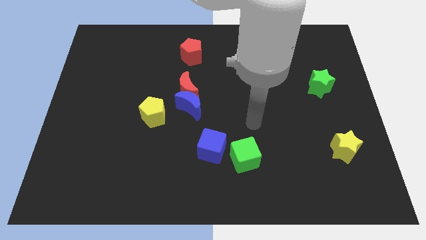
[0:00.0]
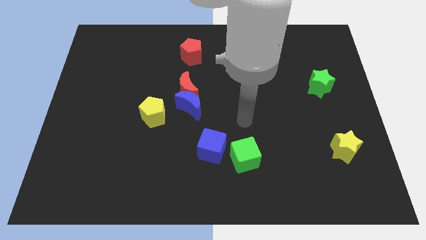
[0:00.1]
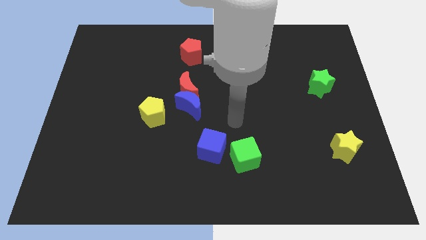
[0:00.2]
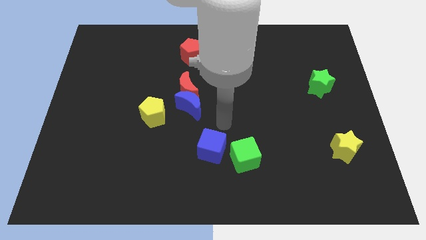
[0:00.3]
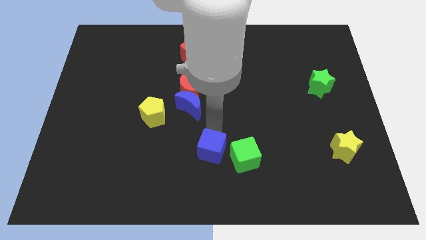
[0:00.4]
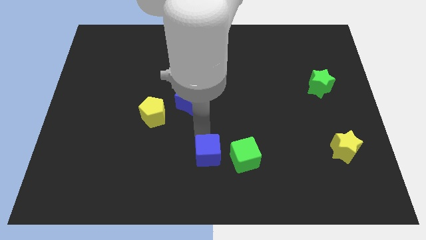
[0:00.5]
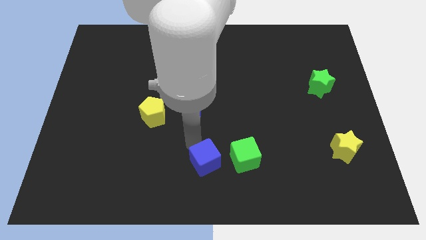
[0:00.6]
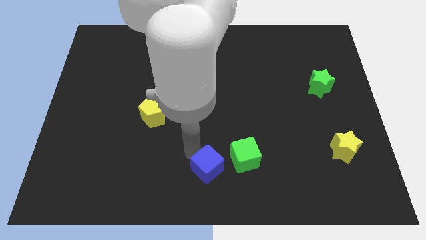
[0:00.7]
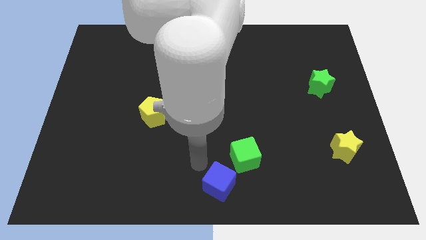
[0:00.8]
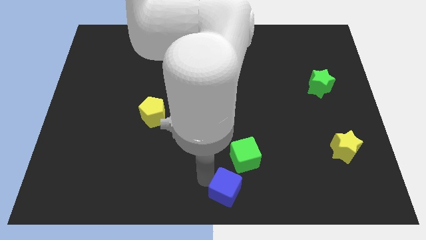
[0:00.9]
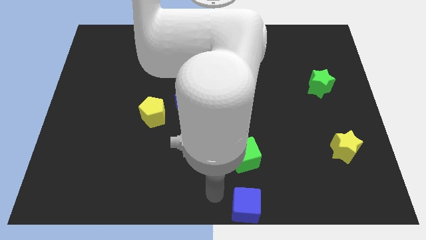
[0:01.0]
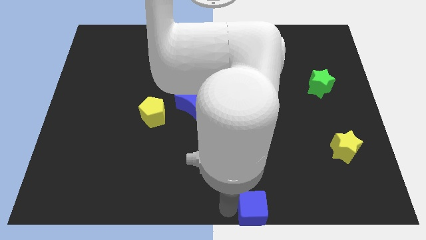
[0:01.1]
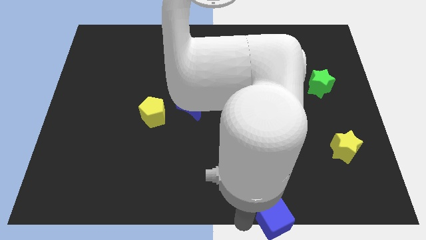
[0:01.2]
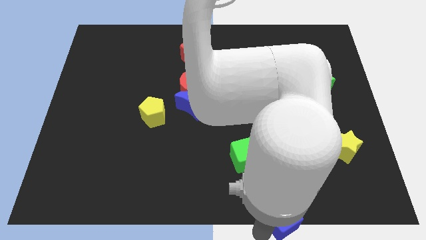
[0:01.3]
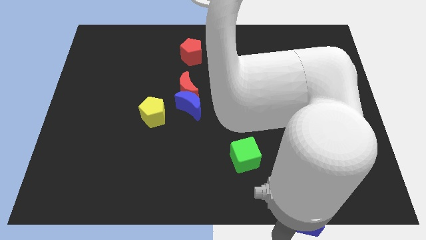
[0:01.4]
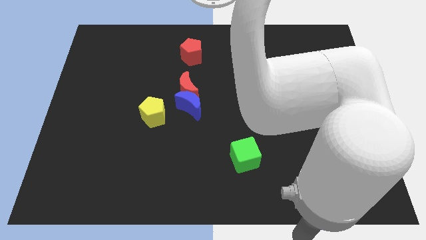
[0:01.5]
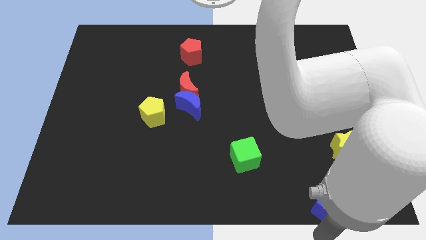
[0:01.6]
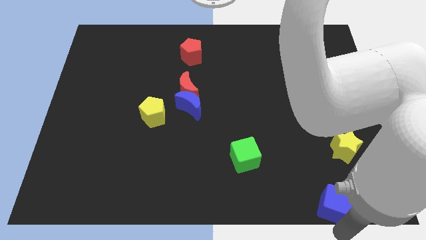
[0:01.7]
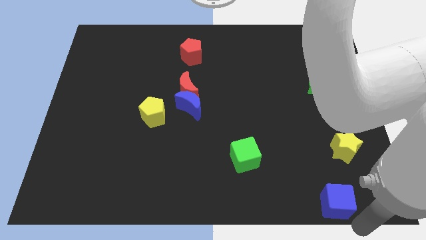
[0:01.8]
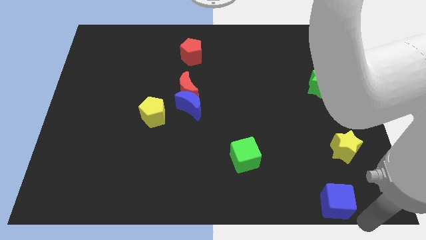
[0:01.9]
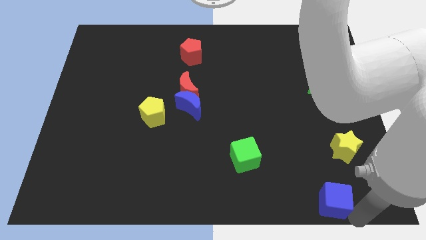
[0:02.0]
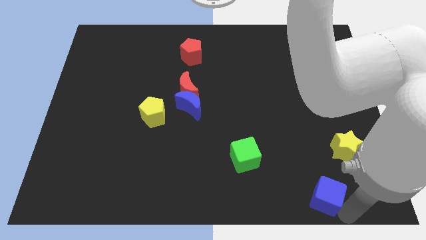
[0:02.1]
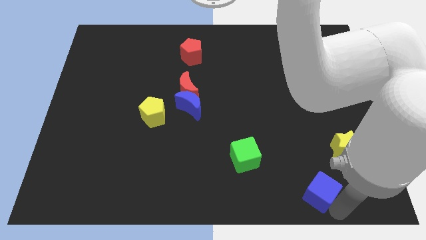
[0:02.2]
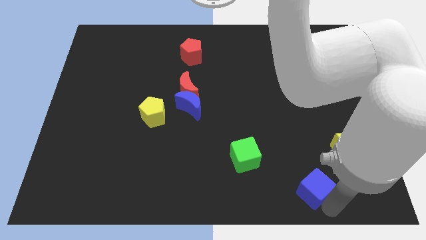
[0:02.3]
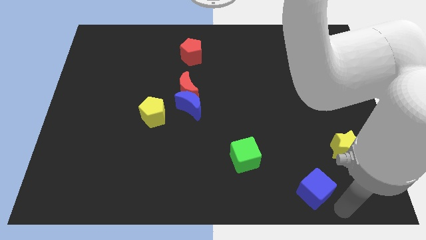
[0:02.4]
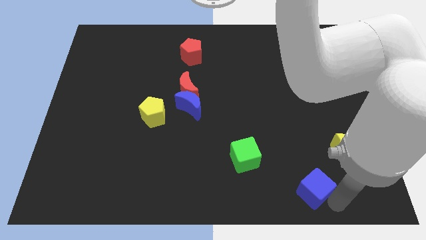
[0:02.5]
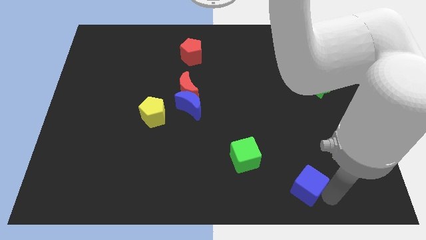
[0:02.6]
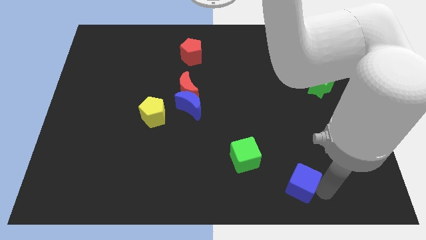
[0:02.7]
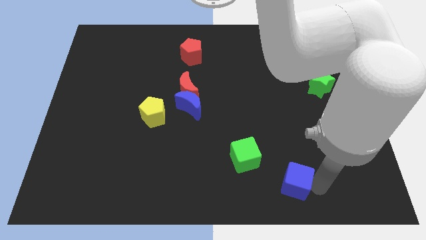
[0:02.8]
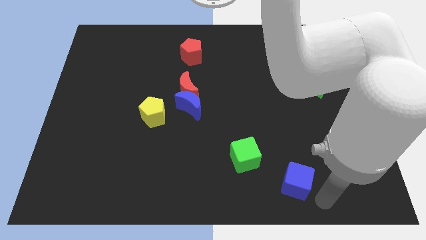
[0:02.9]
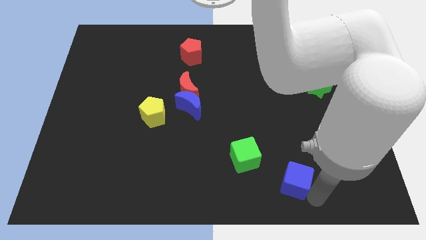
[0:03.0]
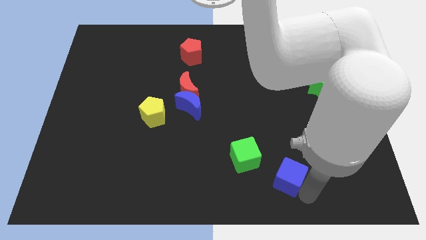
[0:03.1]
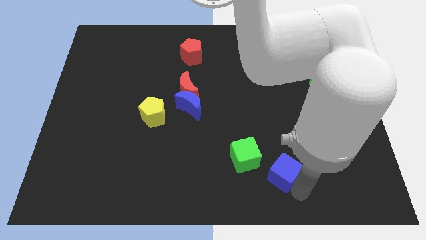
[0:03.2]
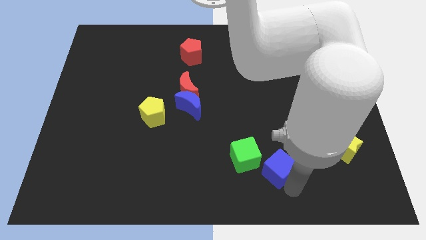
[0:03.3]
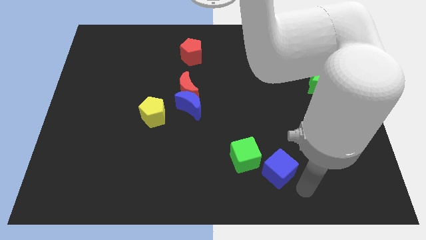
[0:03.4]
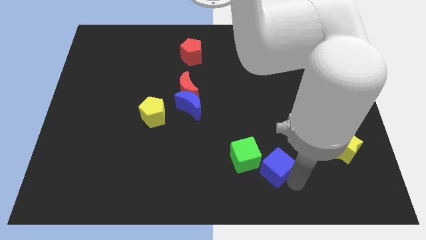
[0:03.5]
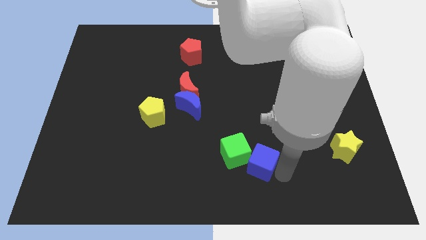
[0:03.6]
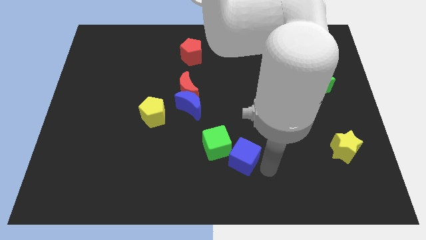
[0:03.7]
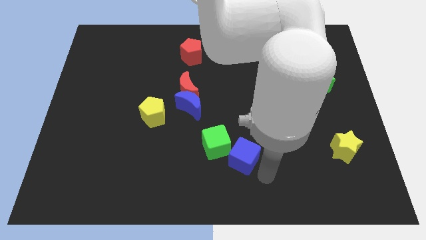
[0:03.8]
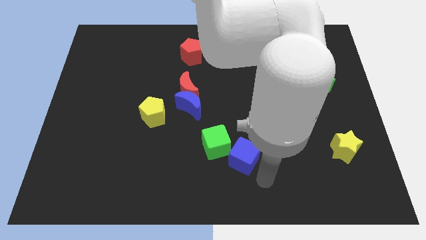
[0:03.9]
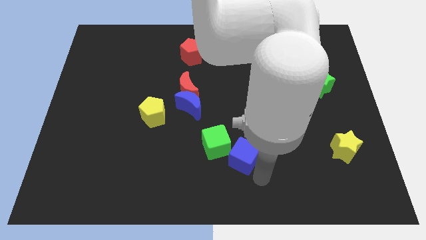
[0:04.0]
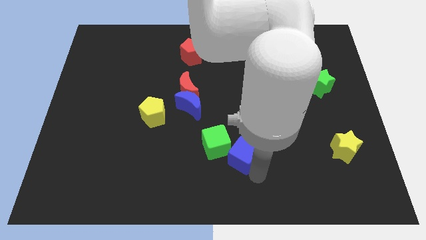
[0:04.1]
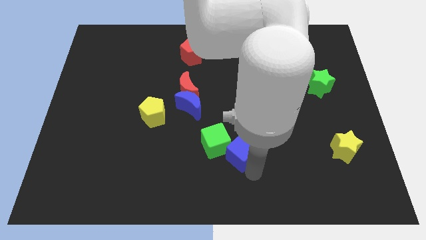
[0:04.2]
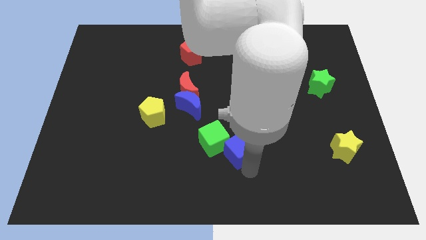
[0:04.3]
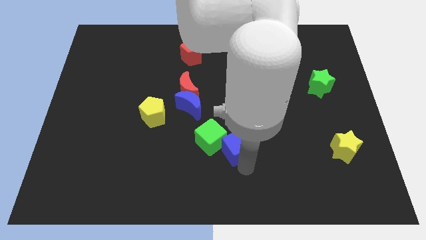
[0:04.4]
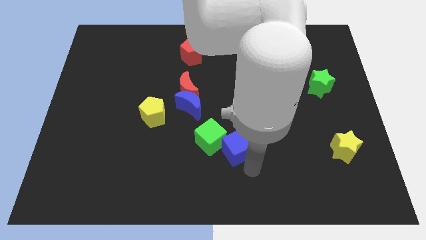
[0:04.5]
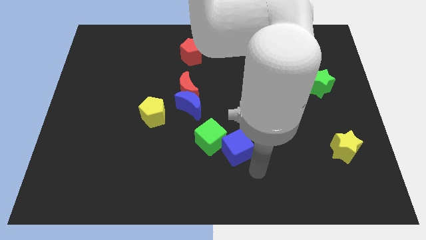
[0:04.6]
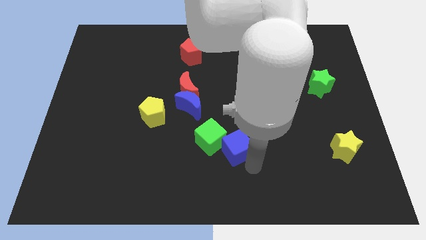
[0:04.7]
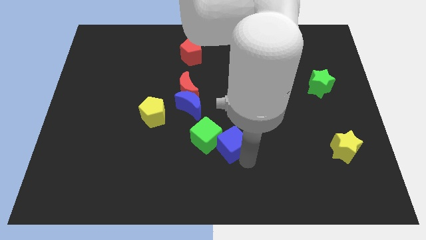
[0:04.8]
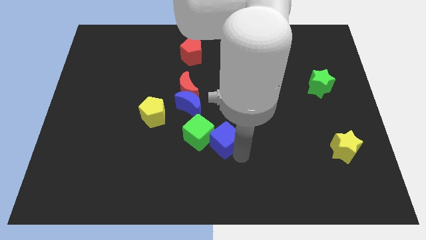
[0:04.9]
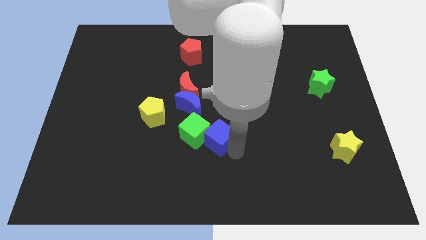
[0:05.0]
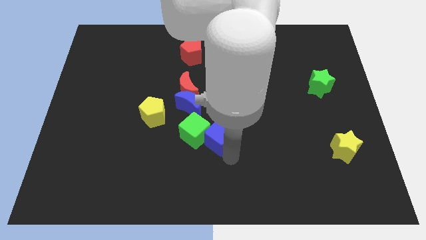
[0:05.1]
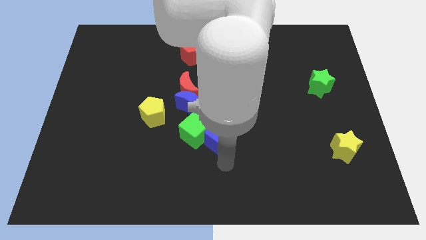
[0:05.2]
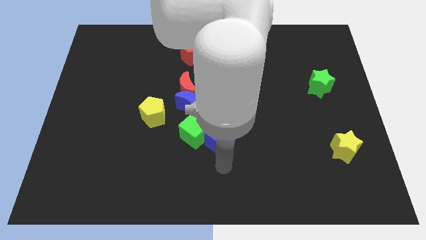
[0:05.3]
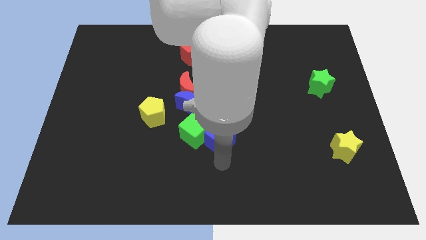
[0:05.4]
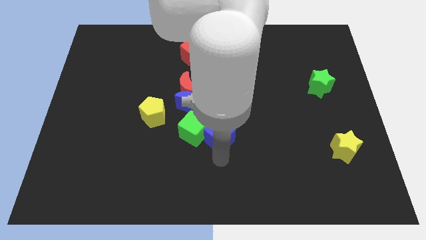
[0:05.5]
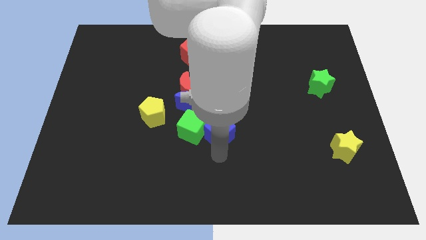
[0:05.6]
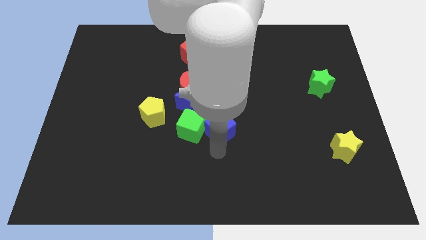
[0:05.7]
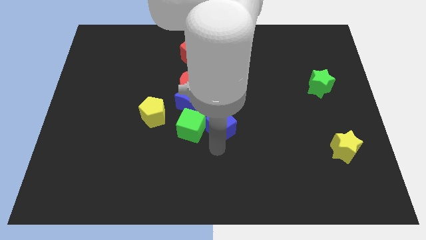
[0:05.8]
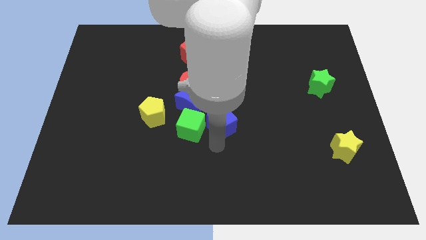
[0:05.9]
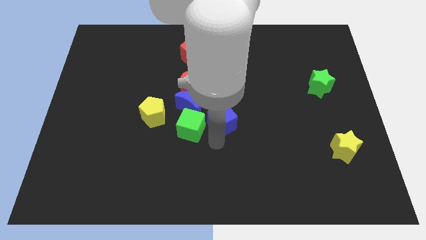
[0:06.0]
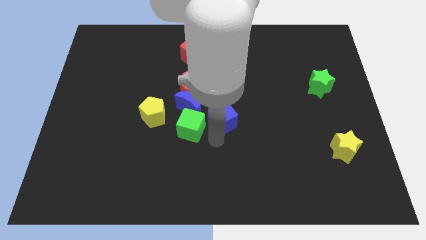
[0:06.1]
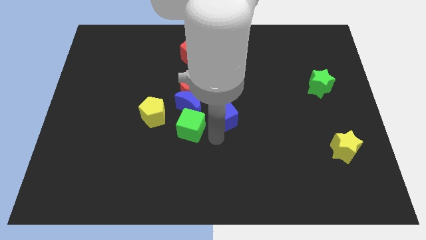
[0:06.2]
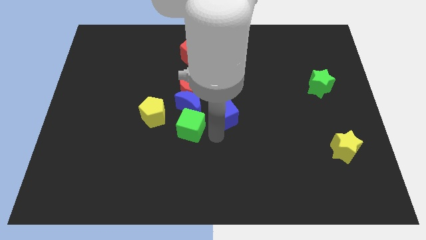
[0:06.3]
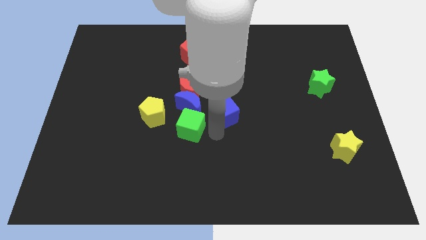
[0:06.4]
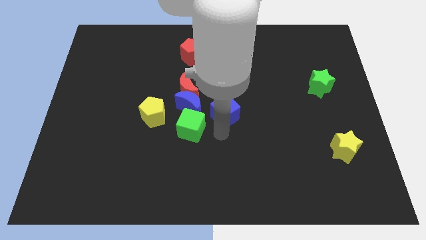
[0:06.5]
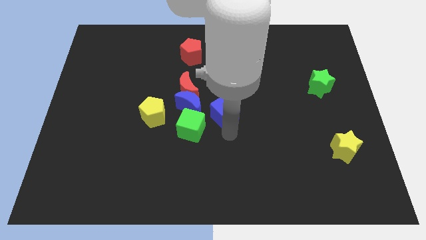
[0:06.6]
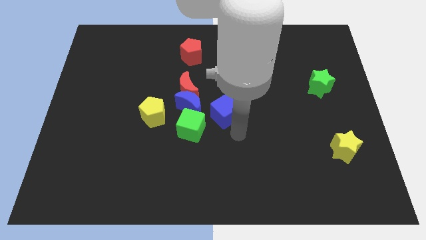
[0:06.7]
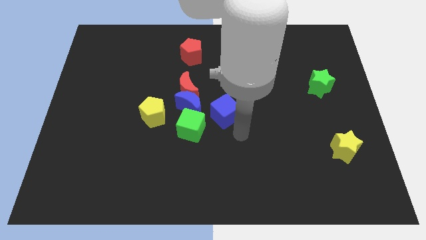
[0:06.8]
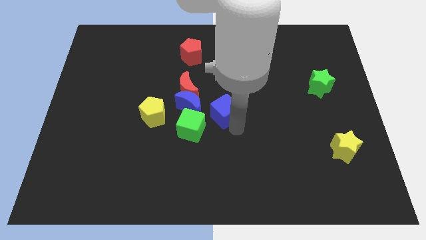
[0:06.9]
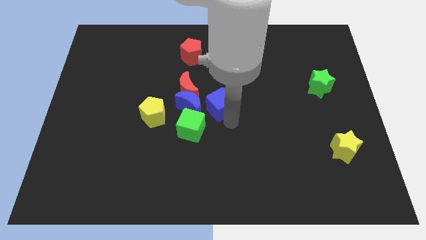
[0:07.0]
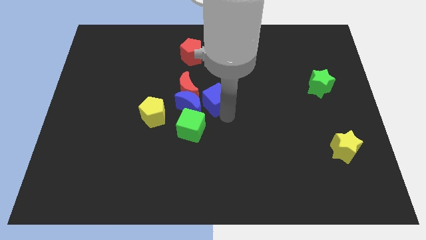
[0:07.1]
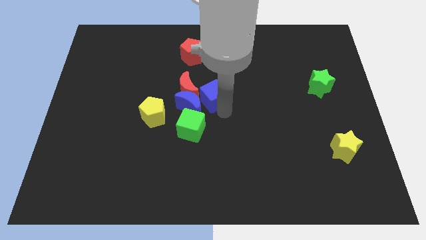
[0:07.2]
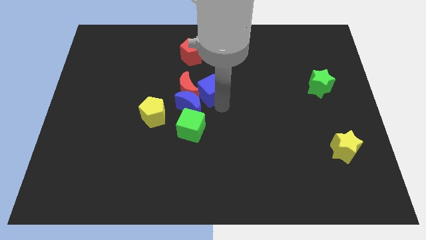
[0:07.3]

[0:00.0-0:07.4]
push the blue cube next to the red moon

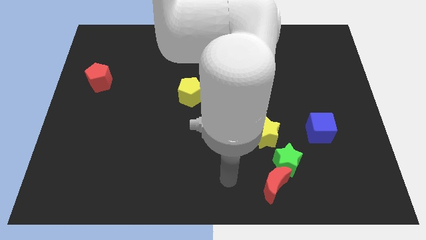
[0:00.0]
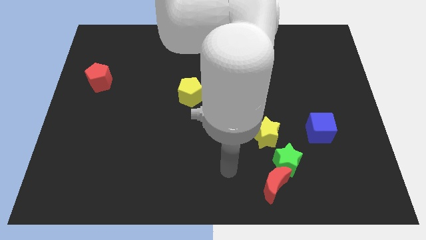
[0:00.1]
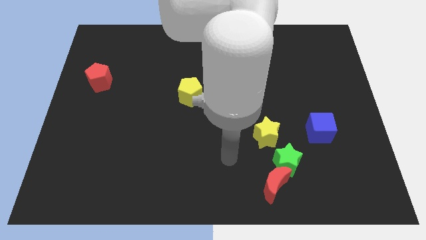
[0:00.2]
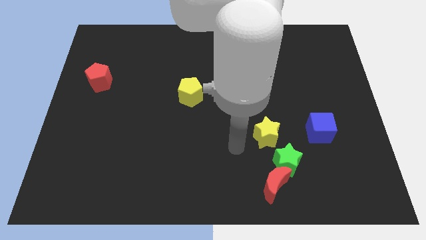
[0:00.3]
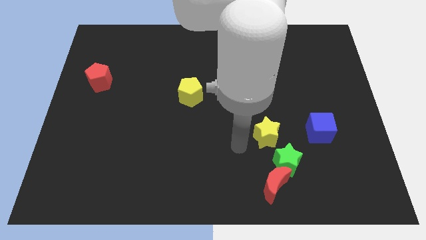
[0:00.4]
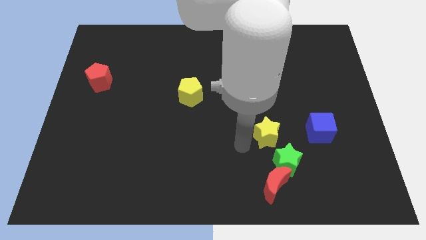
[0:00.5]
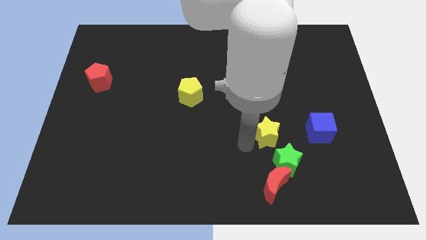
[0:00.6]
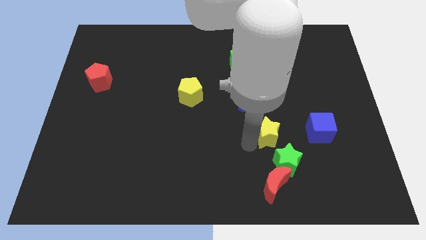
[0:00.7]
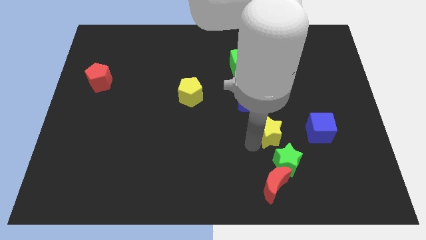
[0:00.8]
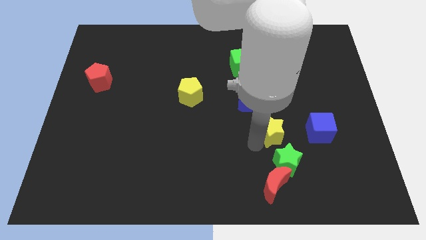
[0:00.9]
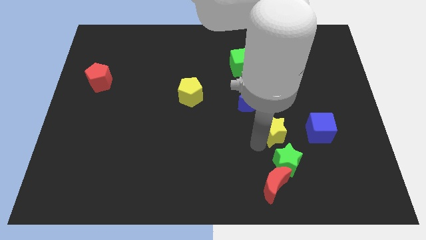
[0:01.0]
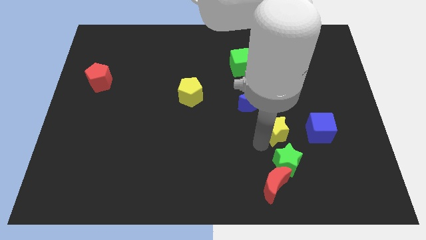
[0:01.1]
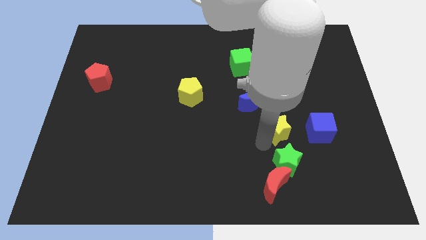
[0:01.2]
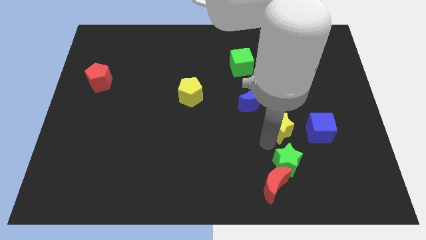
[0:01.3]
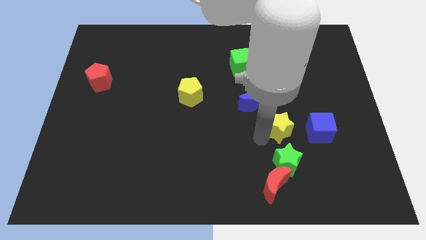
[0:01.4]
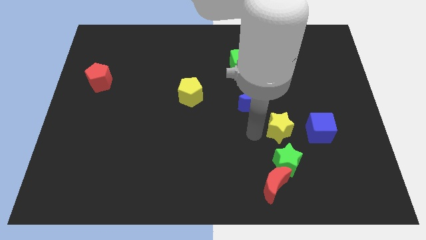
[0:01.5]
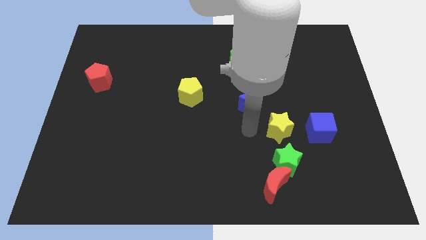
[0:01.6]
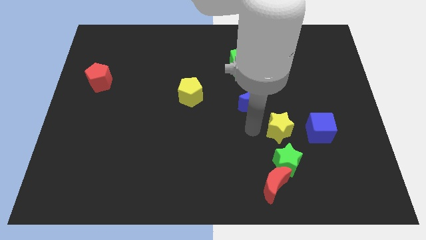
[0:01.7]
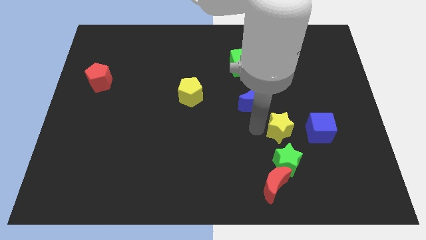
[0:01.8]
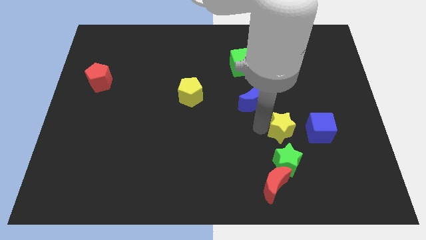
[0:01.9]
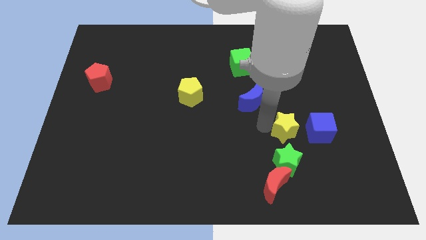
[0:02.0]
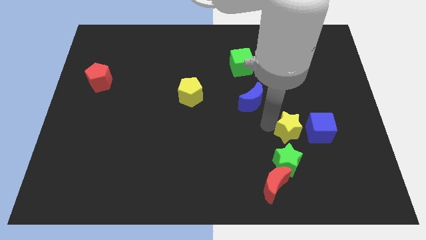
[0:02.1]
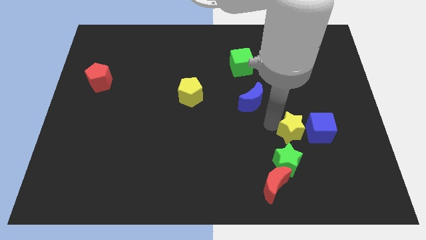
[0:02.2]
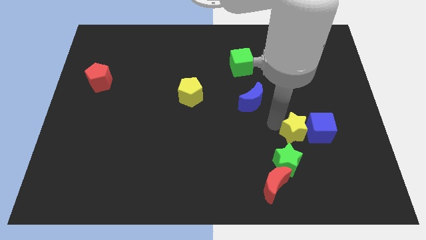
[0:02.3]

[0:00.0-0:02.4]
slide the yellow star next to the blue cube
